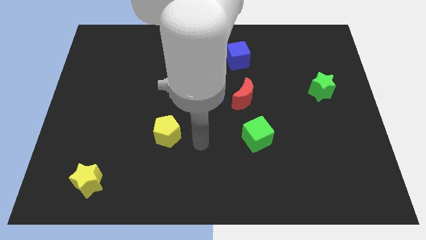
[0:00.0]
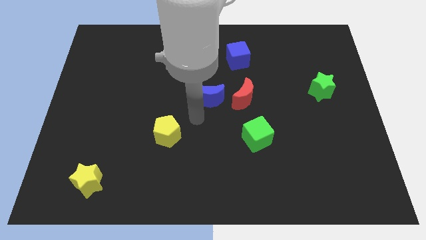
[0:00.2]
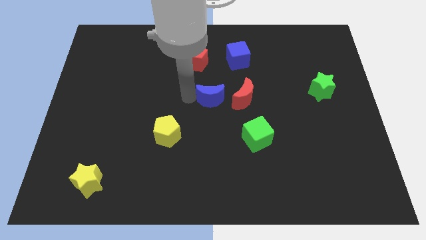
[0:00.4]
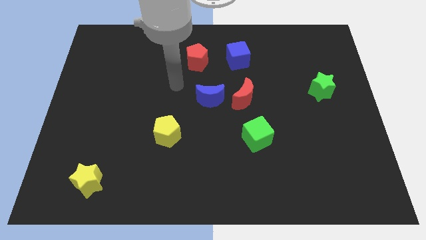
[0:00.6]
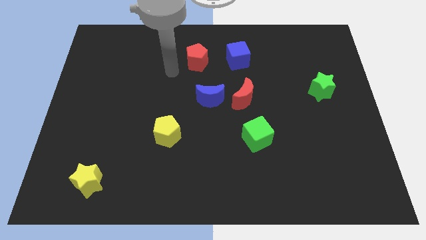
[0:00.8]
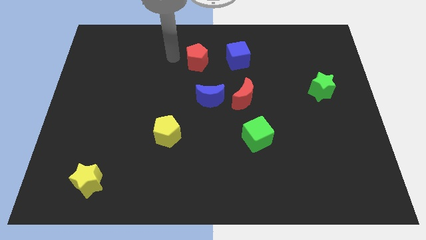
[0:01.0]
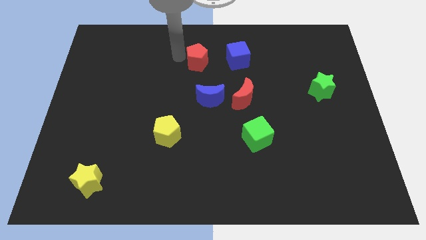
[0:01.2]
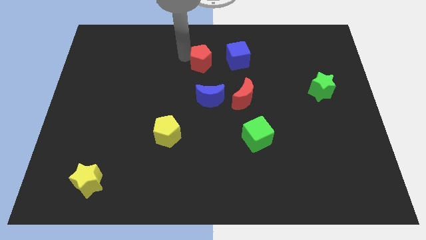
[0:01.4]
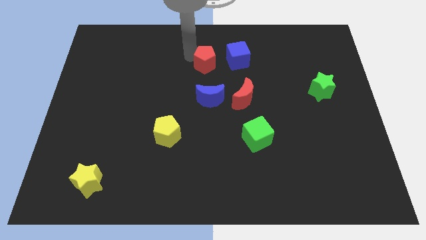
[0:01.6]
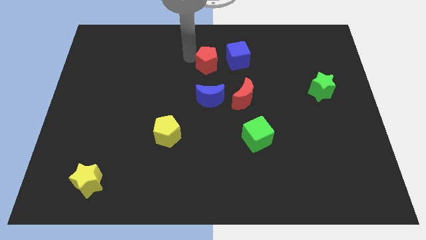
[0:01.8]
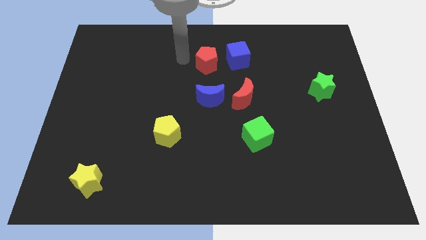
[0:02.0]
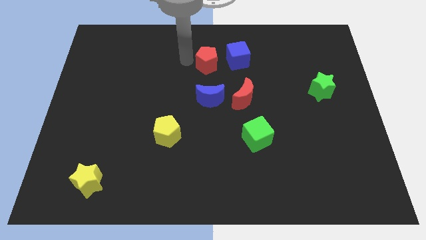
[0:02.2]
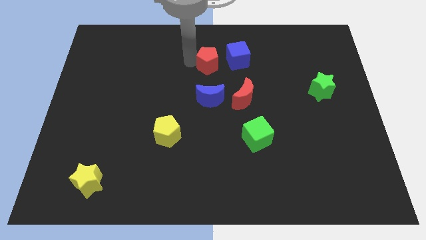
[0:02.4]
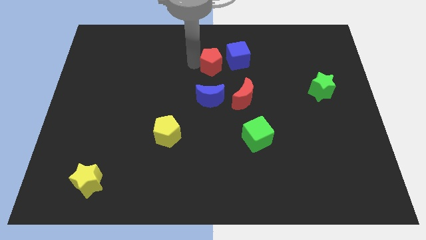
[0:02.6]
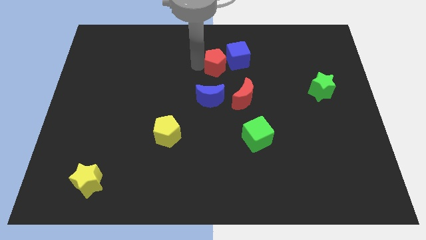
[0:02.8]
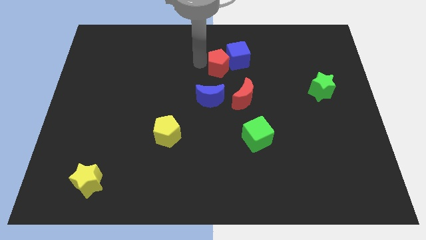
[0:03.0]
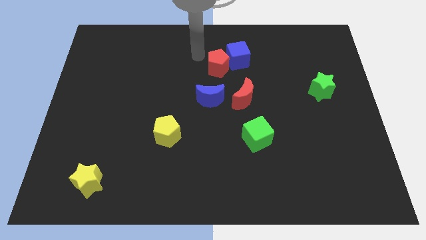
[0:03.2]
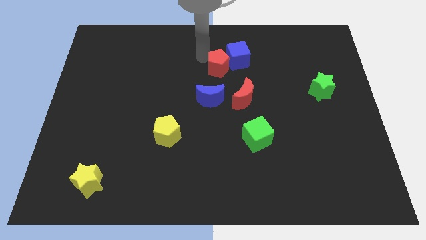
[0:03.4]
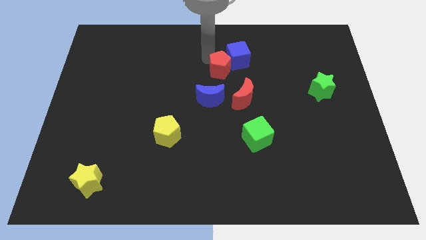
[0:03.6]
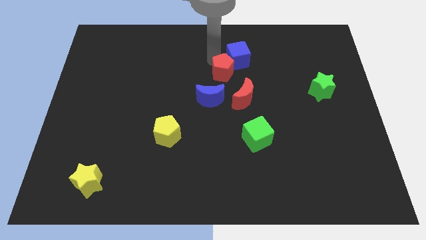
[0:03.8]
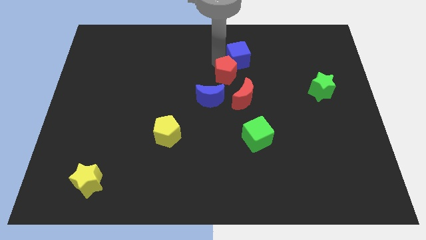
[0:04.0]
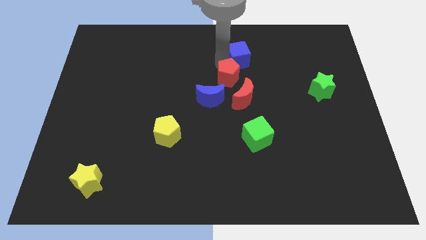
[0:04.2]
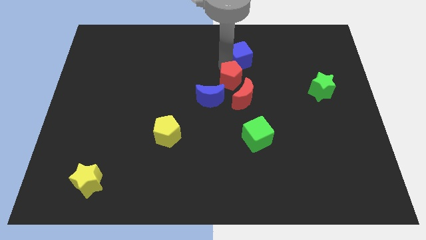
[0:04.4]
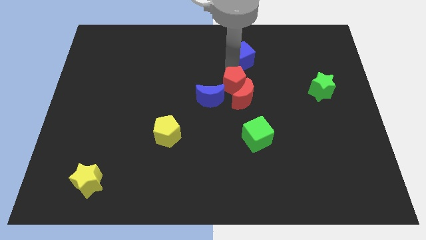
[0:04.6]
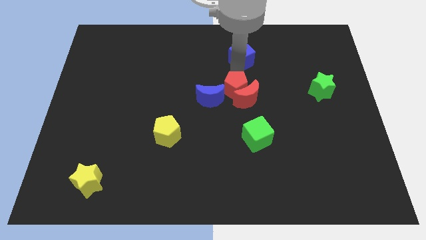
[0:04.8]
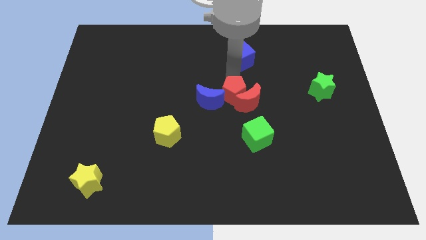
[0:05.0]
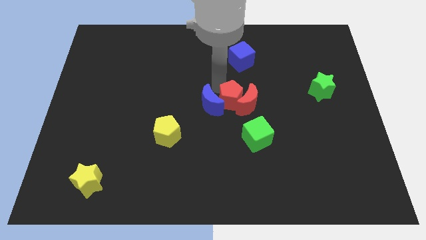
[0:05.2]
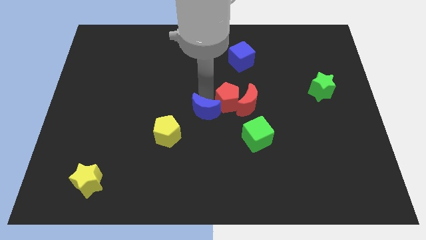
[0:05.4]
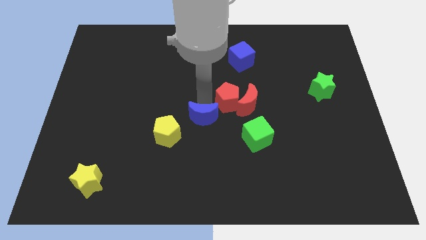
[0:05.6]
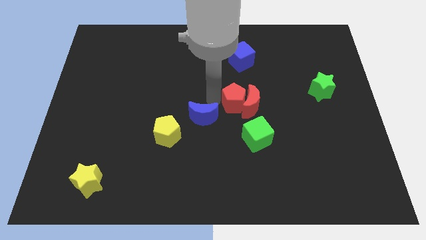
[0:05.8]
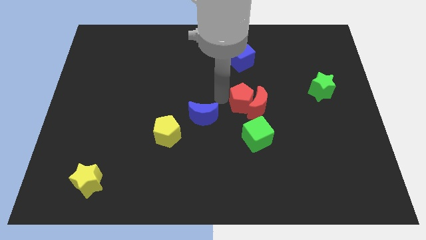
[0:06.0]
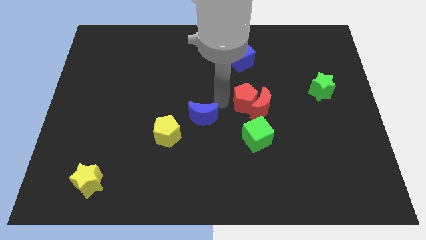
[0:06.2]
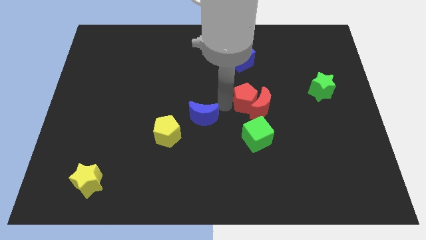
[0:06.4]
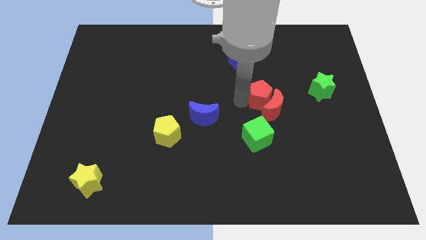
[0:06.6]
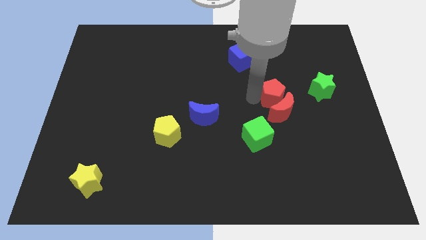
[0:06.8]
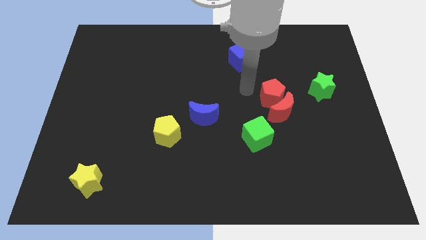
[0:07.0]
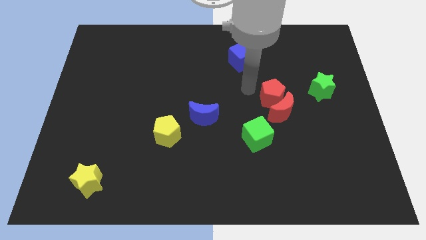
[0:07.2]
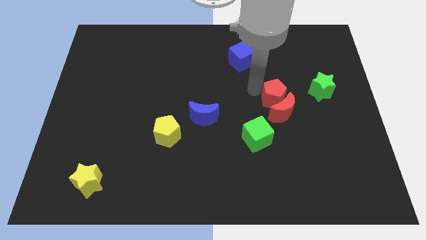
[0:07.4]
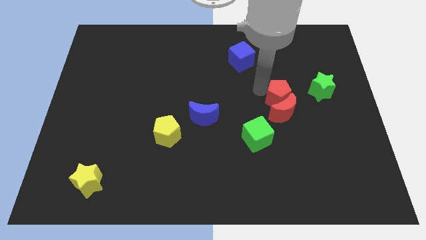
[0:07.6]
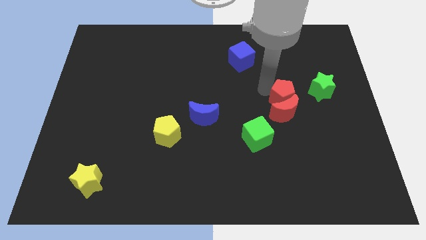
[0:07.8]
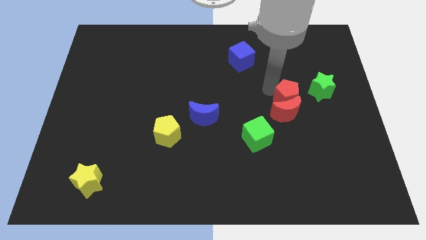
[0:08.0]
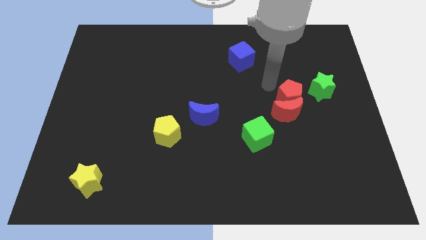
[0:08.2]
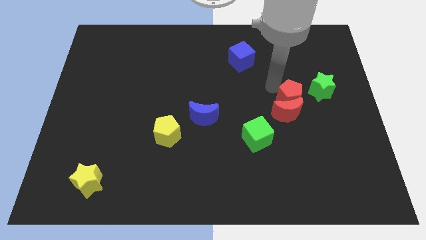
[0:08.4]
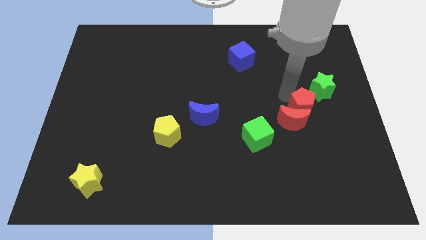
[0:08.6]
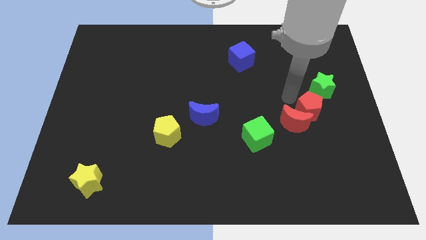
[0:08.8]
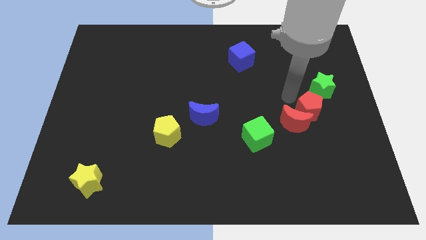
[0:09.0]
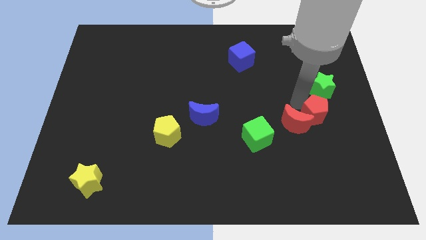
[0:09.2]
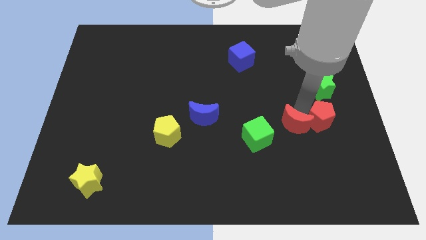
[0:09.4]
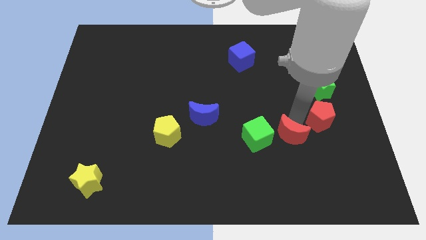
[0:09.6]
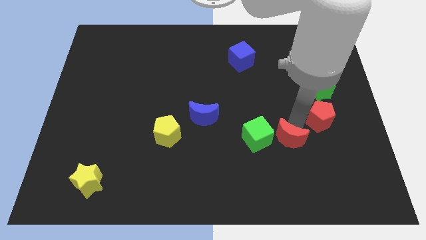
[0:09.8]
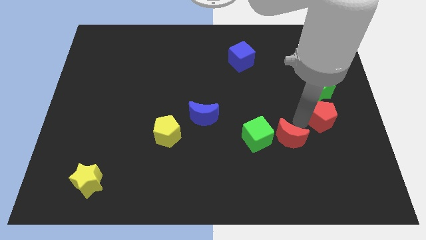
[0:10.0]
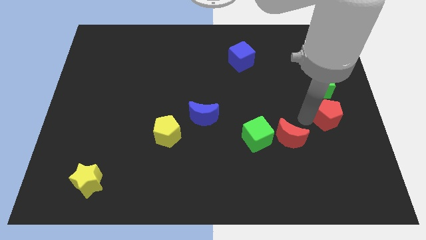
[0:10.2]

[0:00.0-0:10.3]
push the red pentagon to the right side
